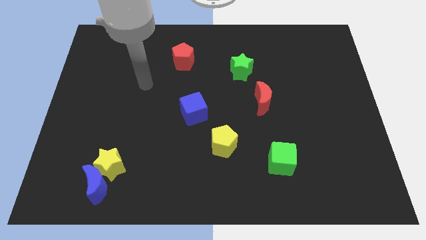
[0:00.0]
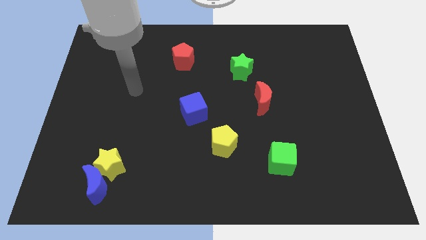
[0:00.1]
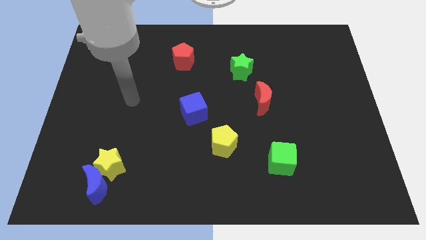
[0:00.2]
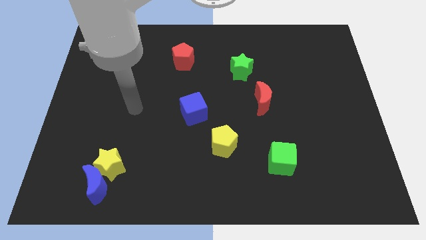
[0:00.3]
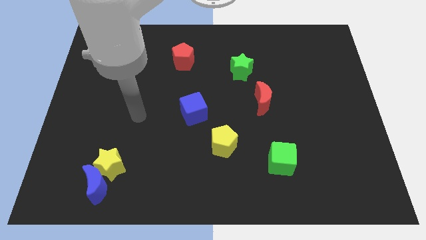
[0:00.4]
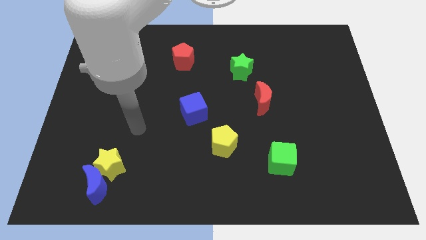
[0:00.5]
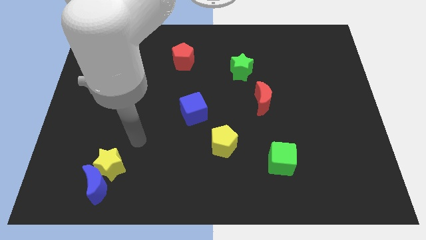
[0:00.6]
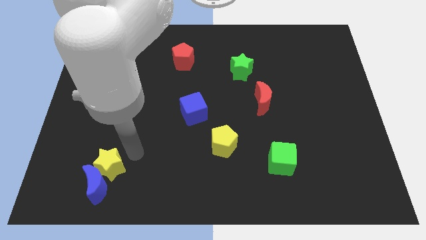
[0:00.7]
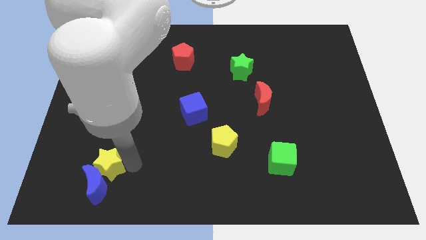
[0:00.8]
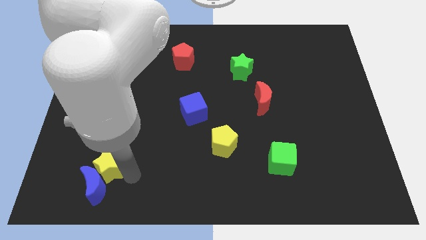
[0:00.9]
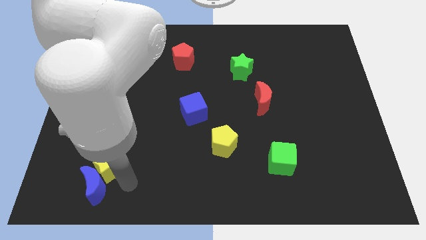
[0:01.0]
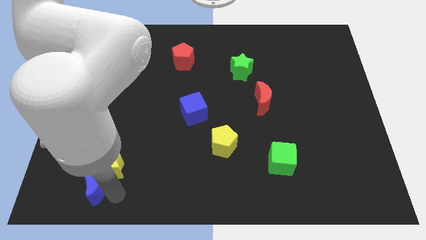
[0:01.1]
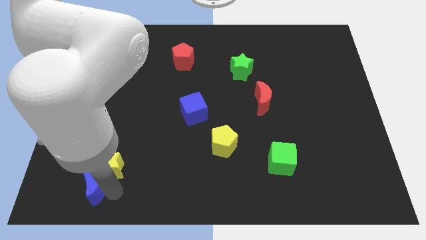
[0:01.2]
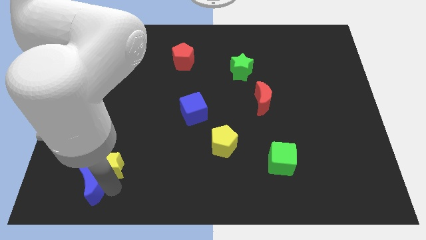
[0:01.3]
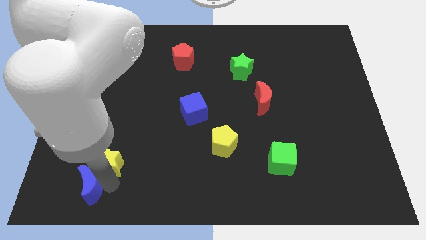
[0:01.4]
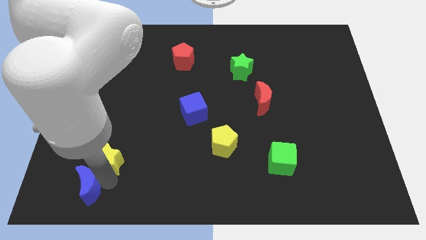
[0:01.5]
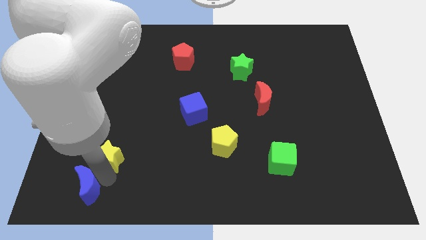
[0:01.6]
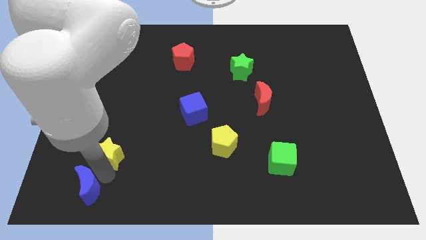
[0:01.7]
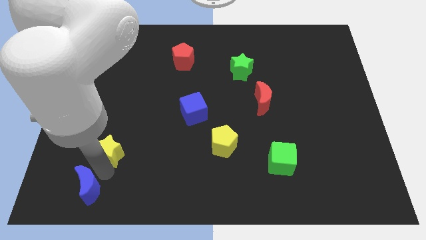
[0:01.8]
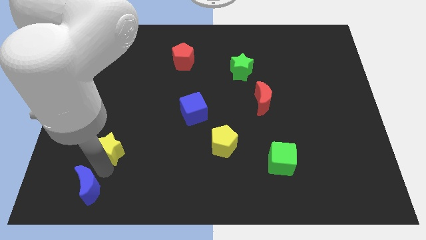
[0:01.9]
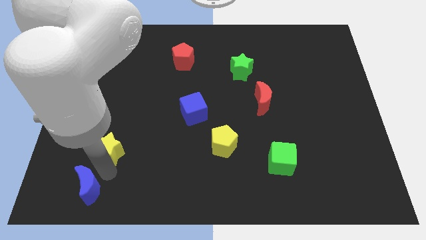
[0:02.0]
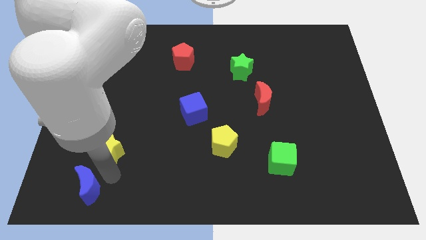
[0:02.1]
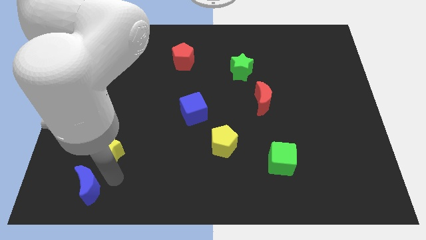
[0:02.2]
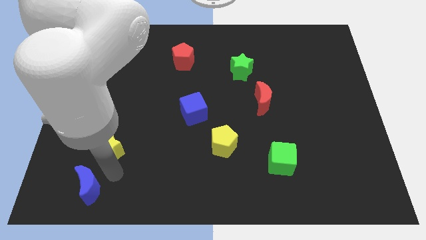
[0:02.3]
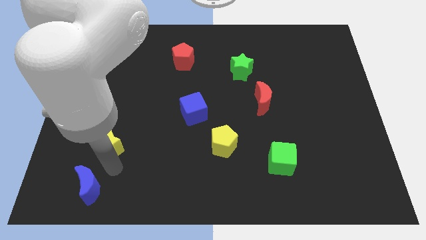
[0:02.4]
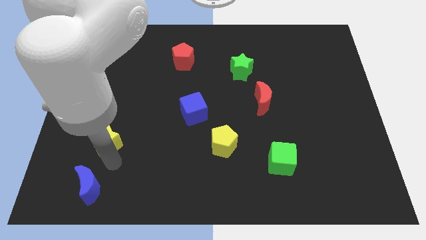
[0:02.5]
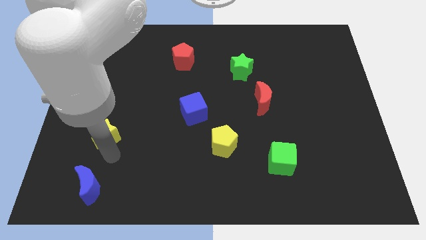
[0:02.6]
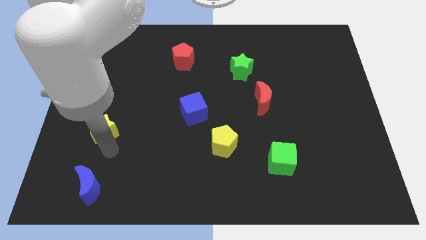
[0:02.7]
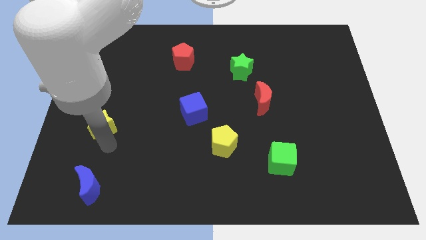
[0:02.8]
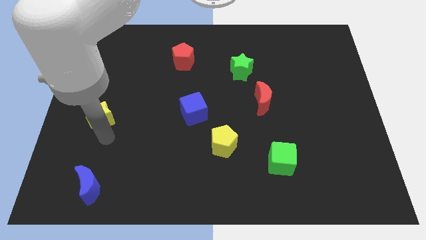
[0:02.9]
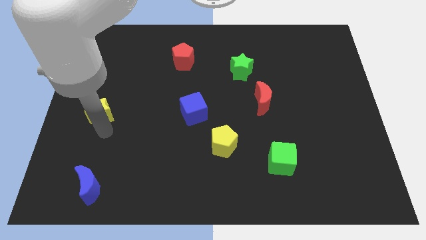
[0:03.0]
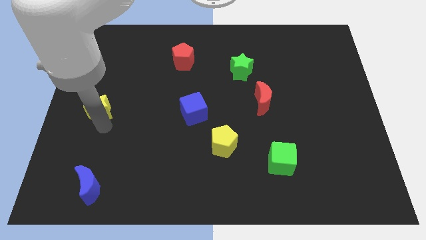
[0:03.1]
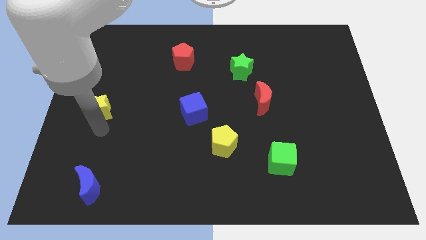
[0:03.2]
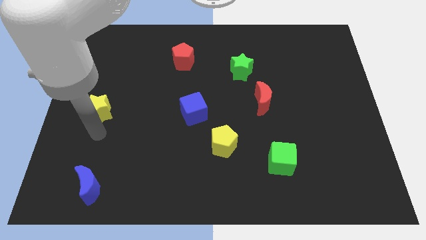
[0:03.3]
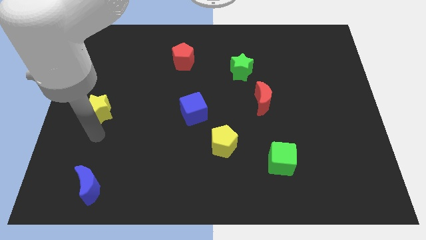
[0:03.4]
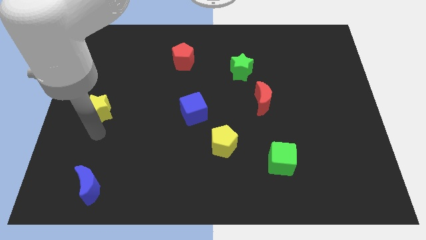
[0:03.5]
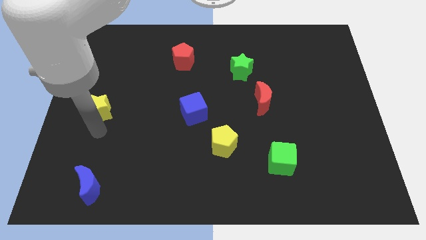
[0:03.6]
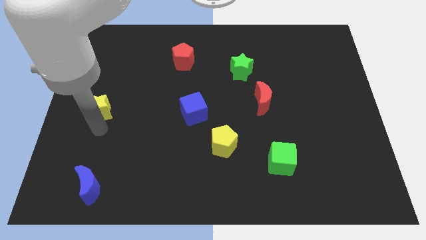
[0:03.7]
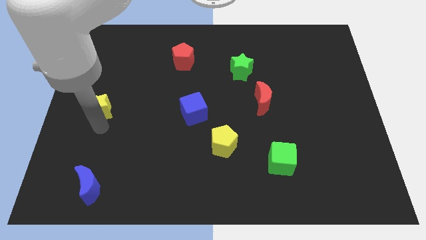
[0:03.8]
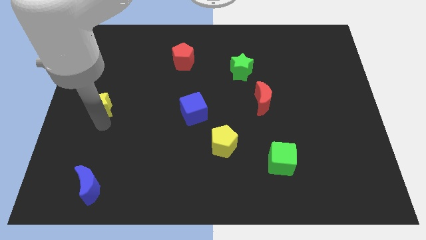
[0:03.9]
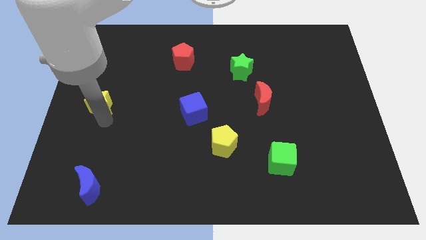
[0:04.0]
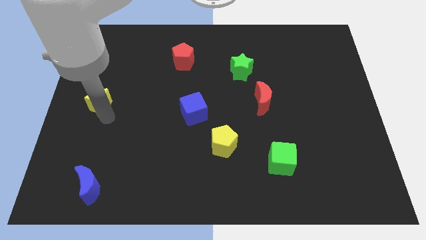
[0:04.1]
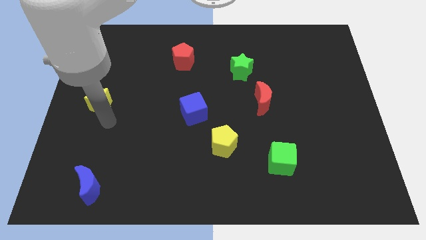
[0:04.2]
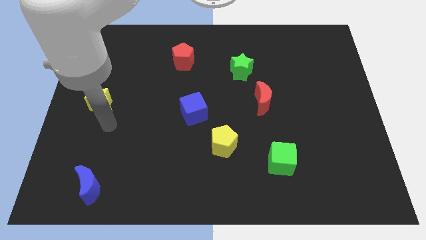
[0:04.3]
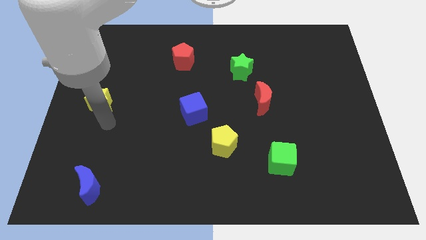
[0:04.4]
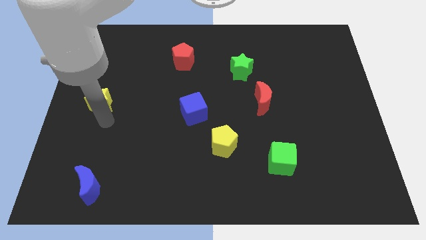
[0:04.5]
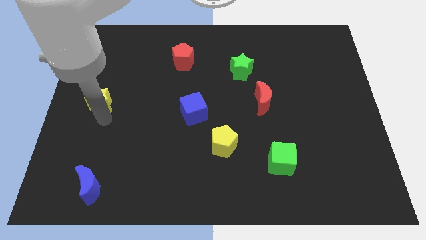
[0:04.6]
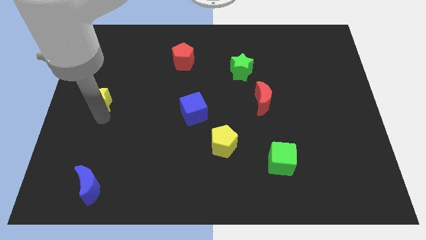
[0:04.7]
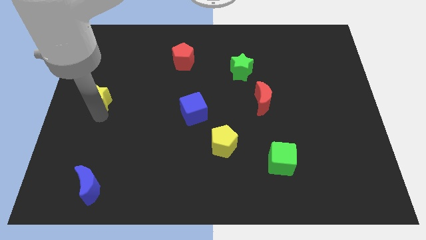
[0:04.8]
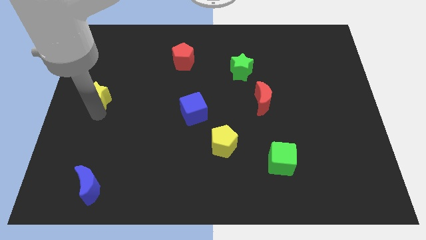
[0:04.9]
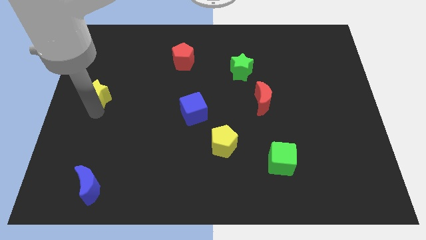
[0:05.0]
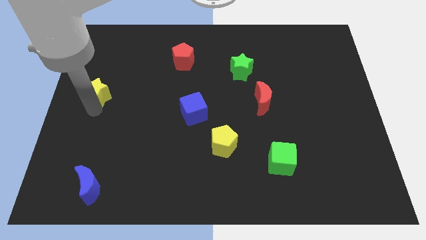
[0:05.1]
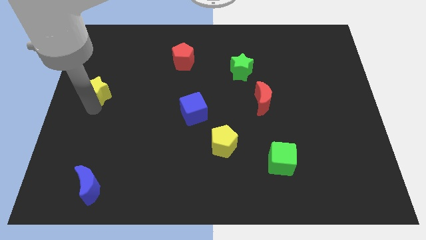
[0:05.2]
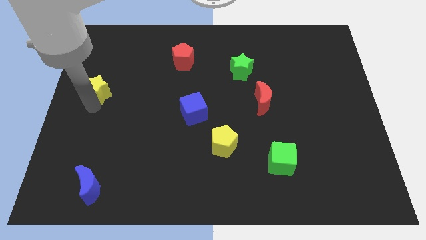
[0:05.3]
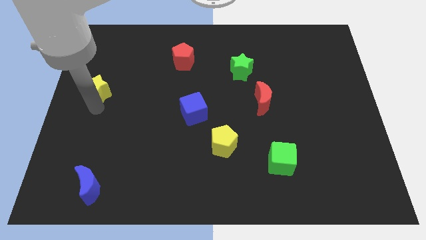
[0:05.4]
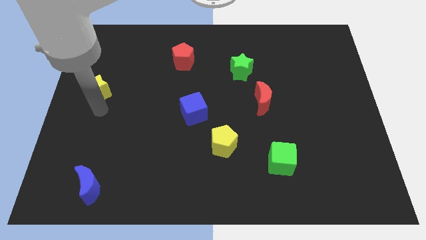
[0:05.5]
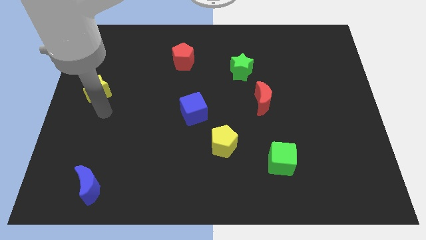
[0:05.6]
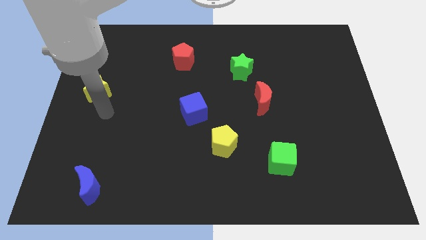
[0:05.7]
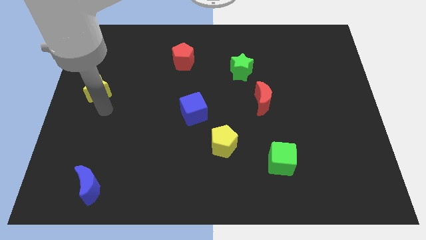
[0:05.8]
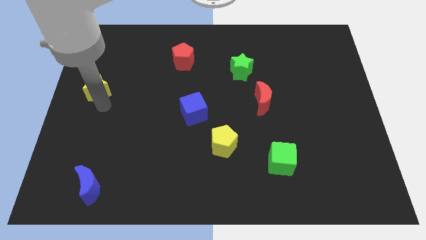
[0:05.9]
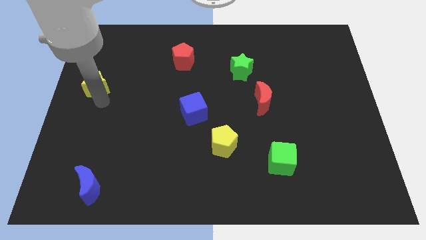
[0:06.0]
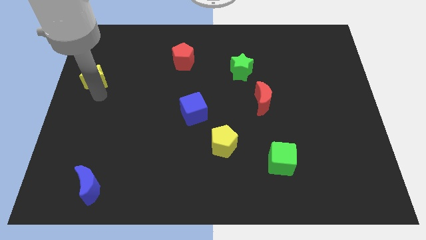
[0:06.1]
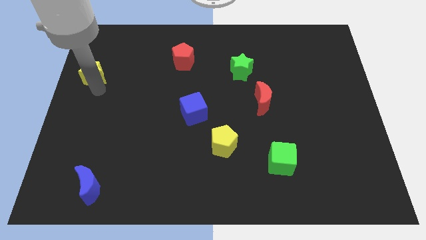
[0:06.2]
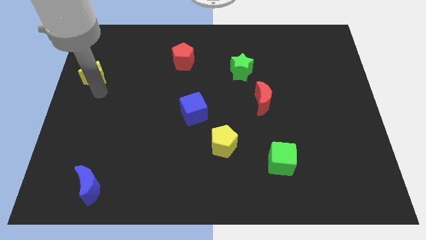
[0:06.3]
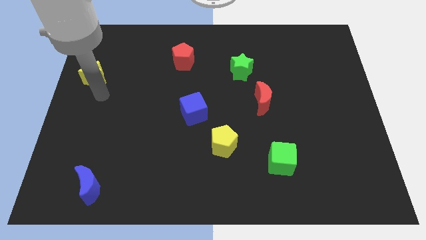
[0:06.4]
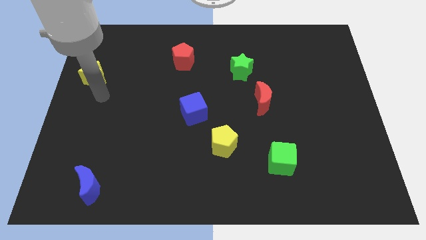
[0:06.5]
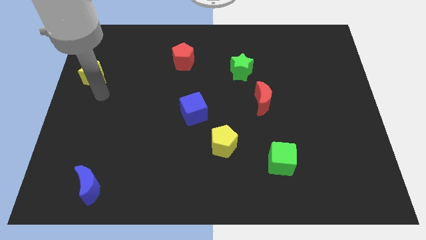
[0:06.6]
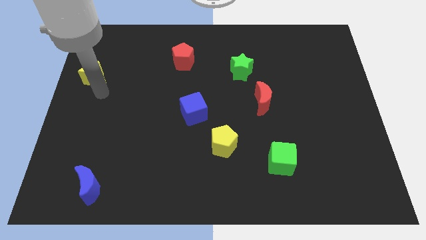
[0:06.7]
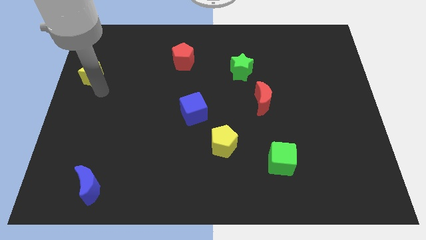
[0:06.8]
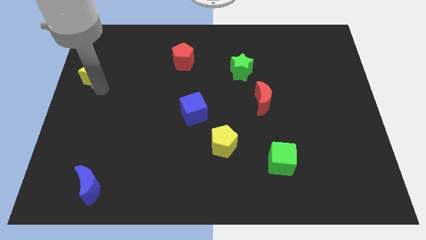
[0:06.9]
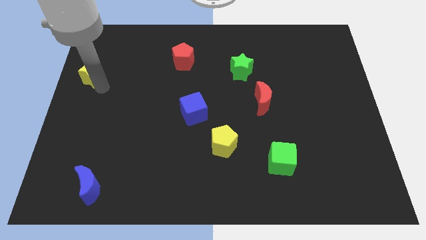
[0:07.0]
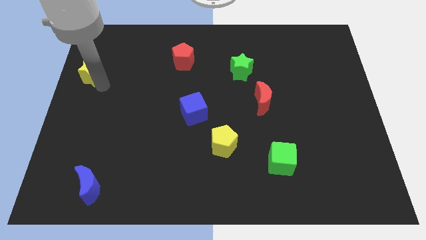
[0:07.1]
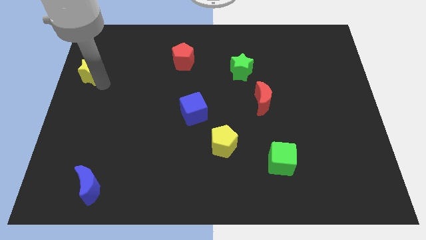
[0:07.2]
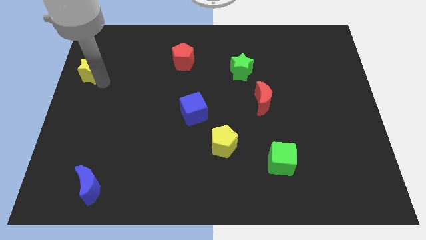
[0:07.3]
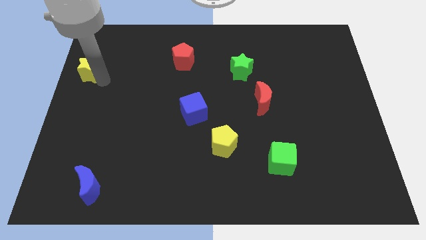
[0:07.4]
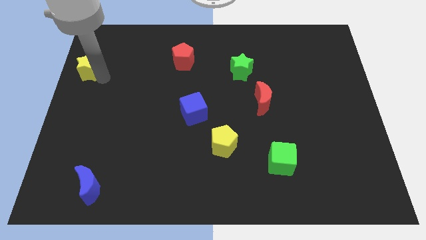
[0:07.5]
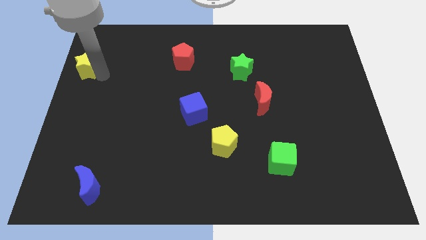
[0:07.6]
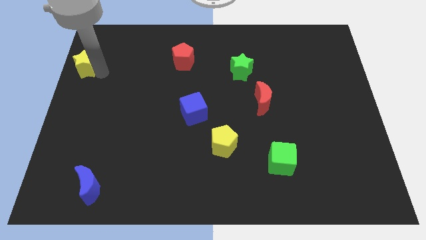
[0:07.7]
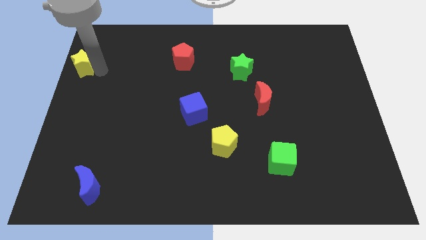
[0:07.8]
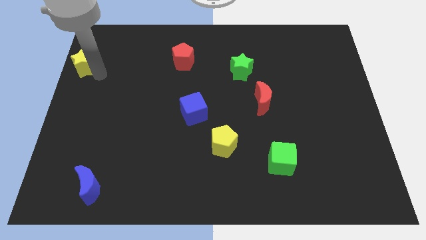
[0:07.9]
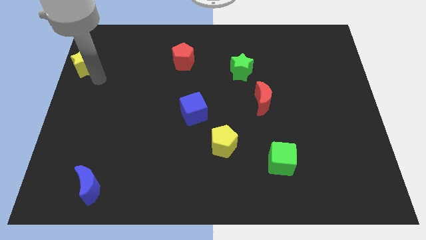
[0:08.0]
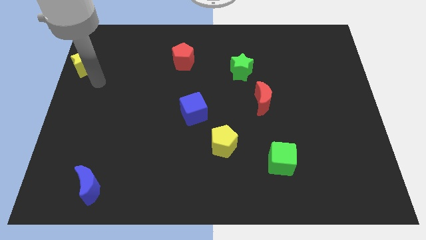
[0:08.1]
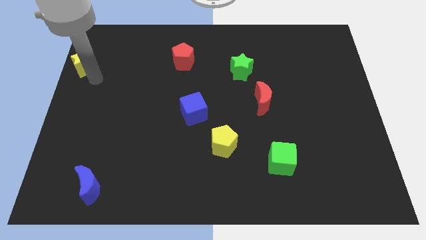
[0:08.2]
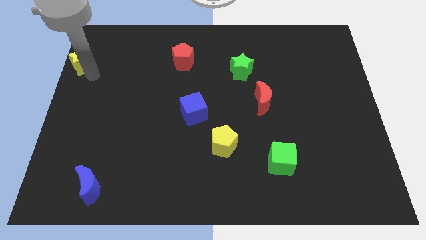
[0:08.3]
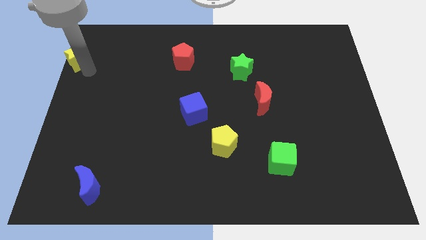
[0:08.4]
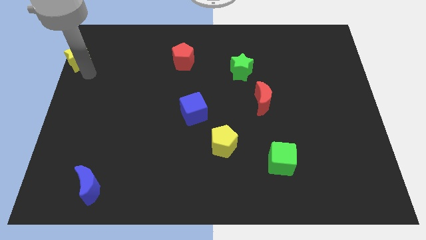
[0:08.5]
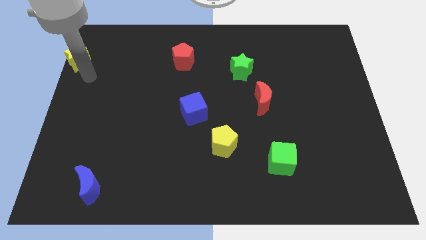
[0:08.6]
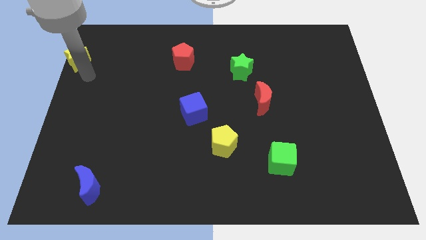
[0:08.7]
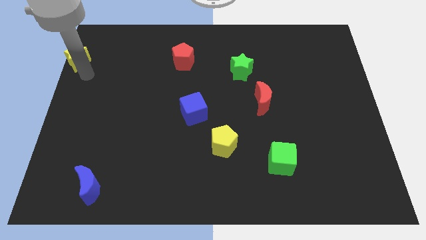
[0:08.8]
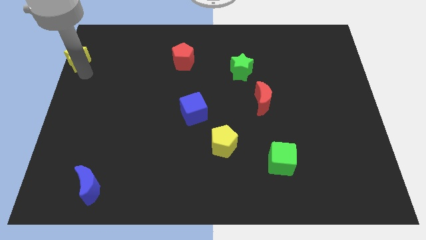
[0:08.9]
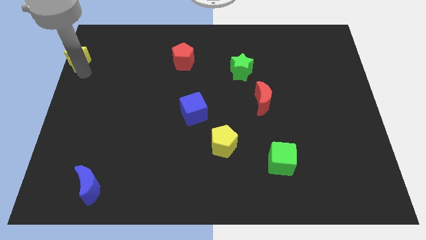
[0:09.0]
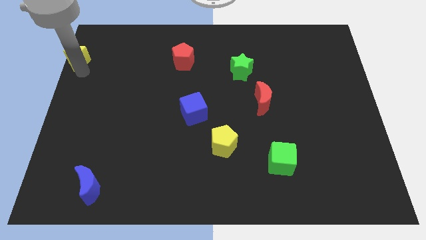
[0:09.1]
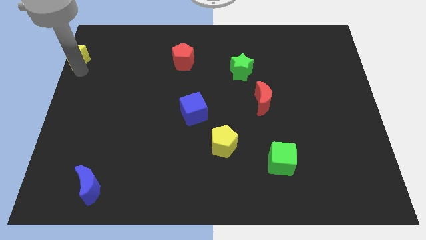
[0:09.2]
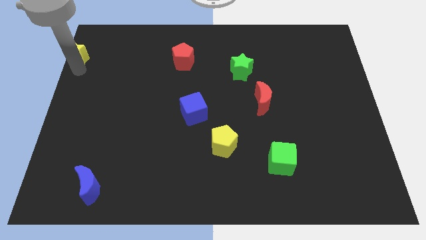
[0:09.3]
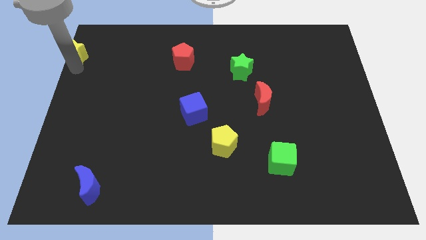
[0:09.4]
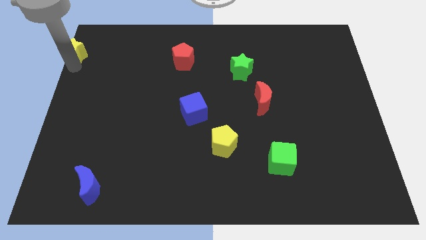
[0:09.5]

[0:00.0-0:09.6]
push the yellow star to the top left corner
